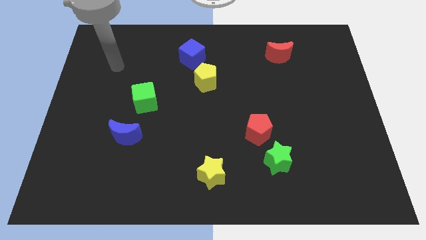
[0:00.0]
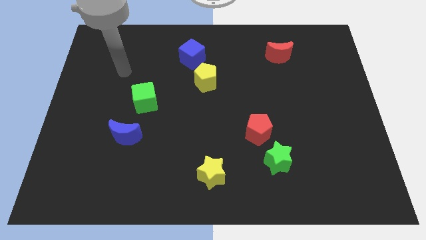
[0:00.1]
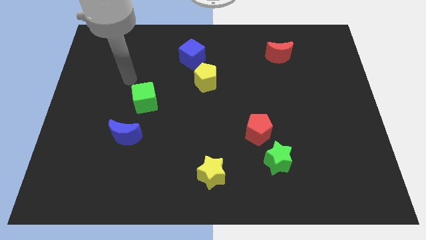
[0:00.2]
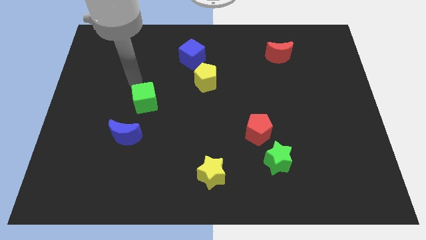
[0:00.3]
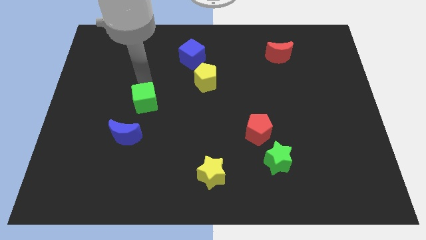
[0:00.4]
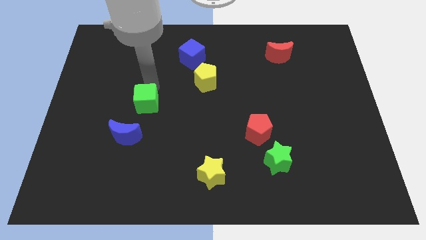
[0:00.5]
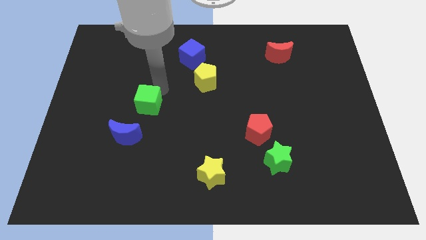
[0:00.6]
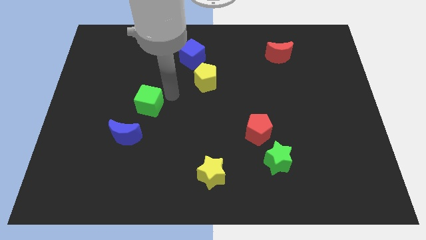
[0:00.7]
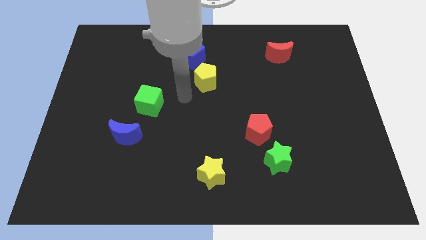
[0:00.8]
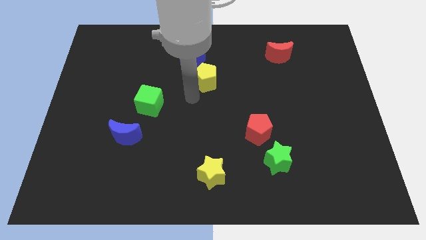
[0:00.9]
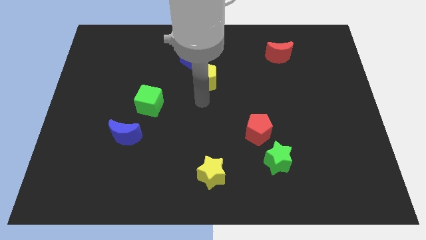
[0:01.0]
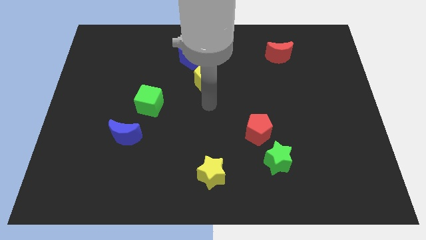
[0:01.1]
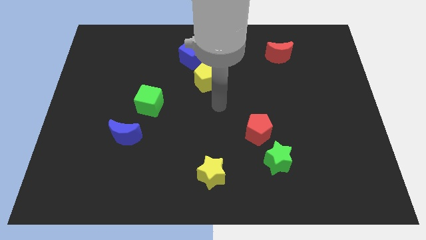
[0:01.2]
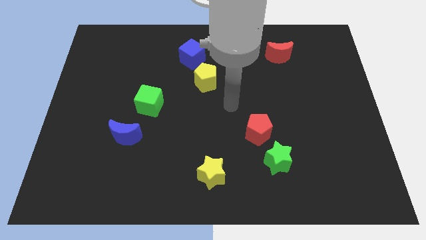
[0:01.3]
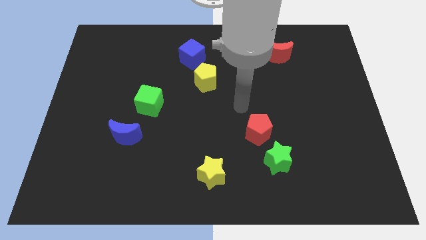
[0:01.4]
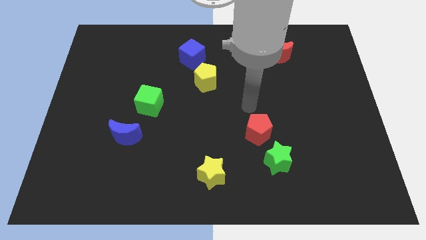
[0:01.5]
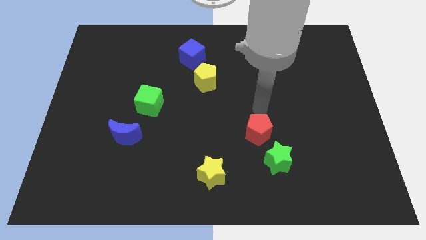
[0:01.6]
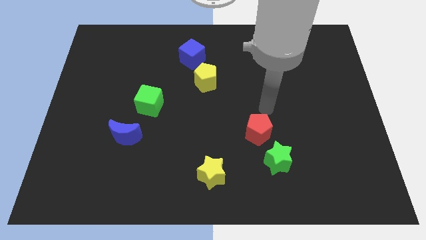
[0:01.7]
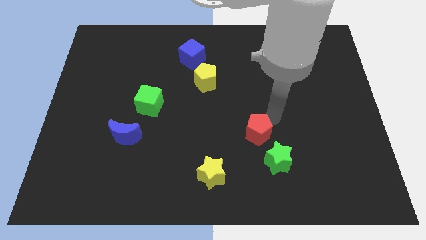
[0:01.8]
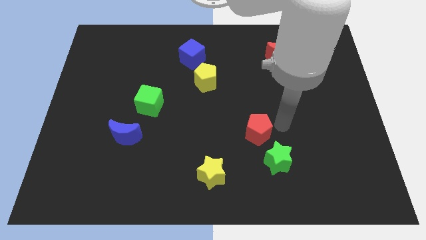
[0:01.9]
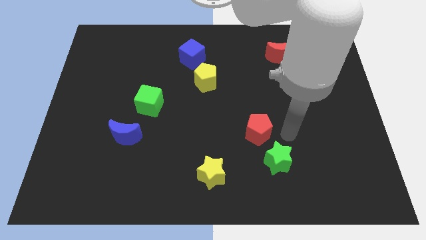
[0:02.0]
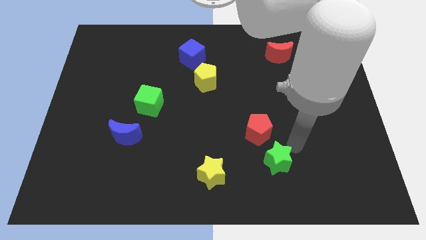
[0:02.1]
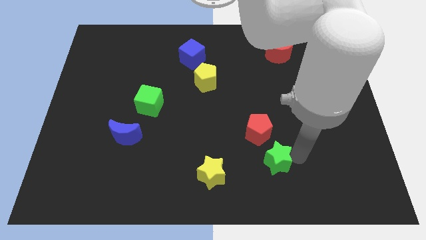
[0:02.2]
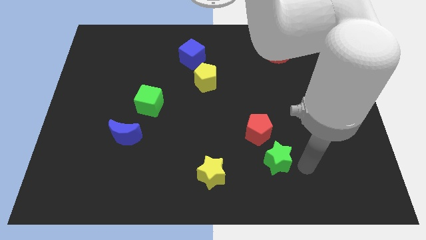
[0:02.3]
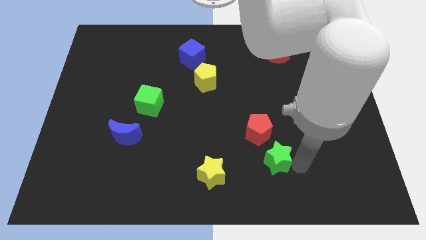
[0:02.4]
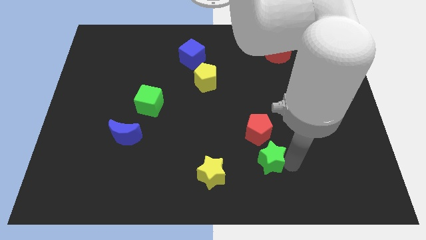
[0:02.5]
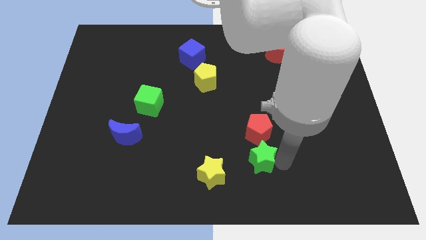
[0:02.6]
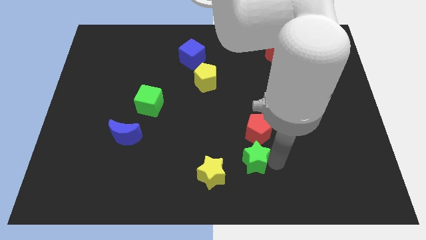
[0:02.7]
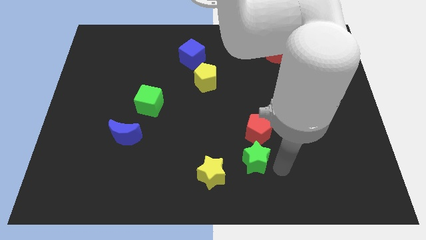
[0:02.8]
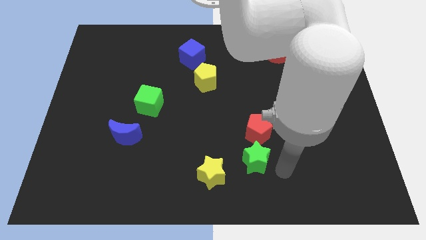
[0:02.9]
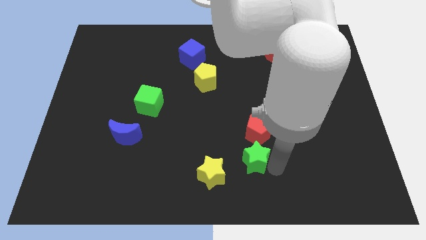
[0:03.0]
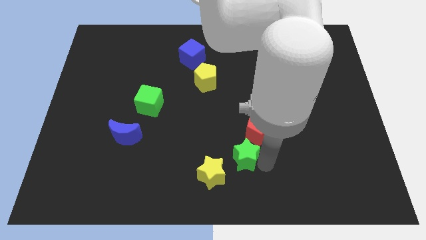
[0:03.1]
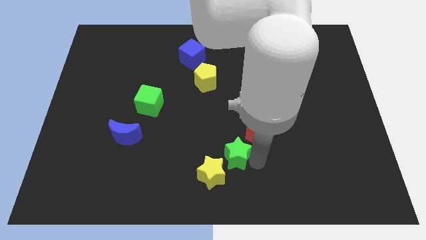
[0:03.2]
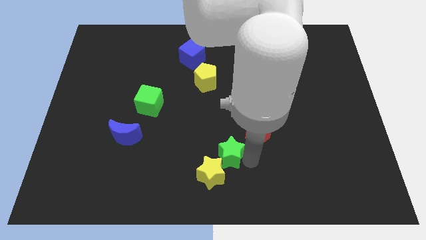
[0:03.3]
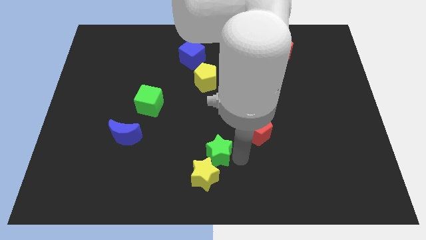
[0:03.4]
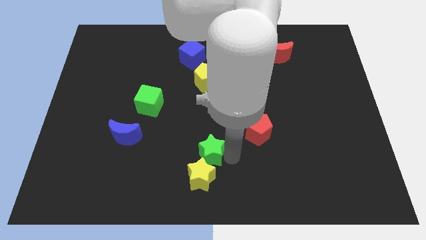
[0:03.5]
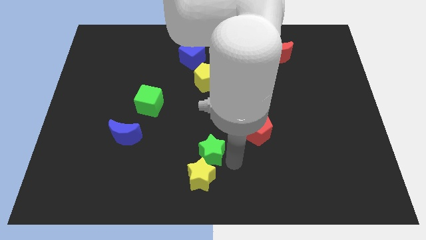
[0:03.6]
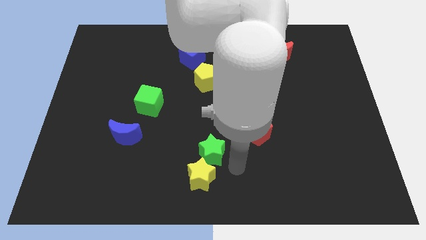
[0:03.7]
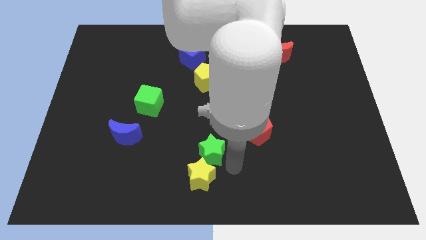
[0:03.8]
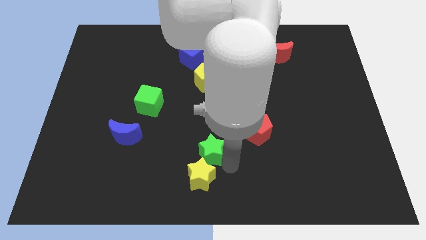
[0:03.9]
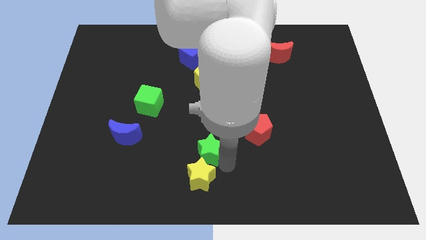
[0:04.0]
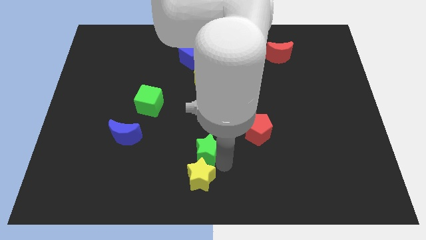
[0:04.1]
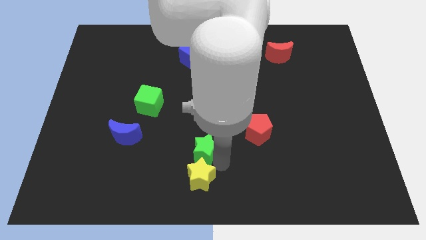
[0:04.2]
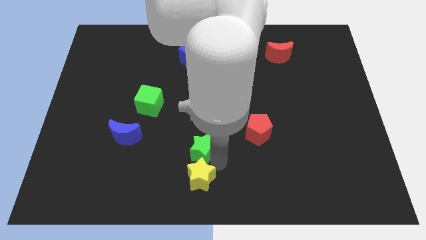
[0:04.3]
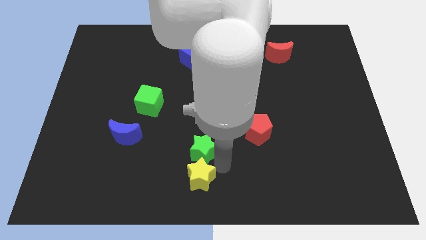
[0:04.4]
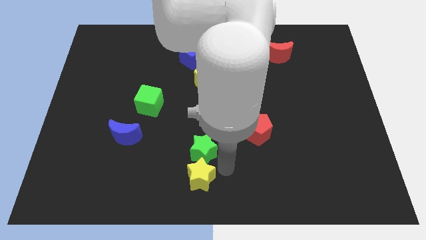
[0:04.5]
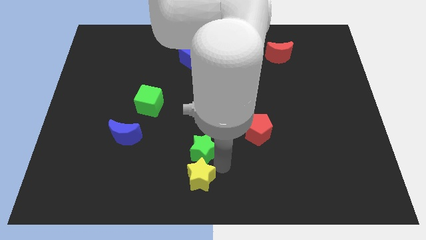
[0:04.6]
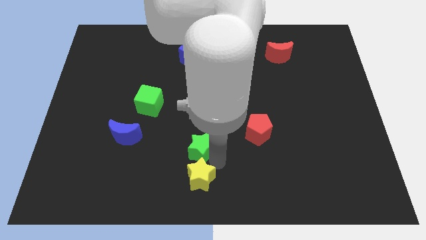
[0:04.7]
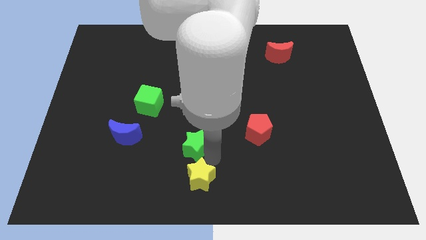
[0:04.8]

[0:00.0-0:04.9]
move the green star just right of the blue moon

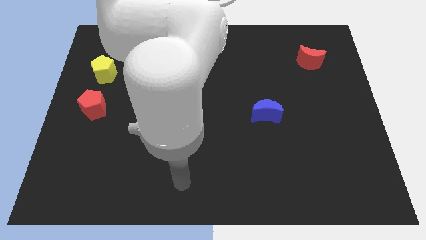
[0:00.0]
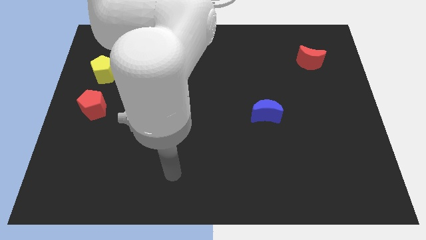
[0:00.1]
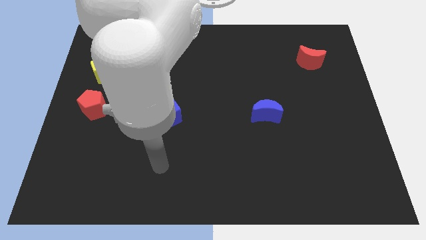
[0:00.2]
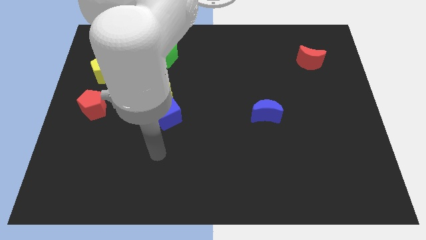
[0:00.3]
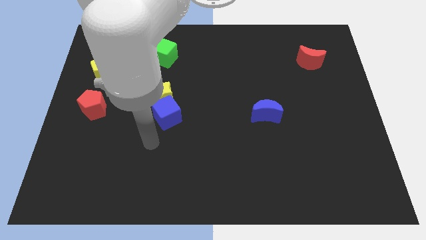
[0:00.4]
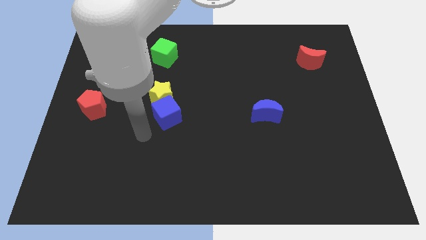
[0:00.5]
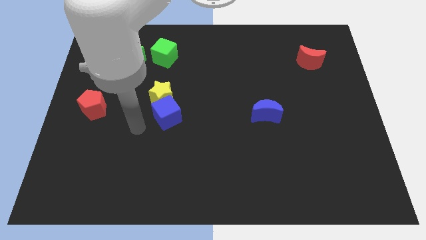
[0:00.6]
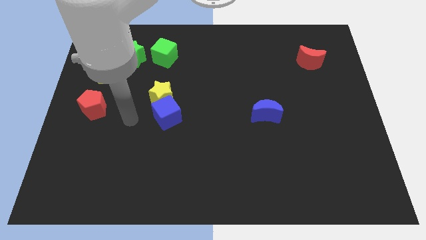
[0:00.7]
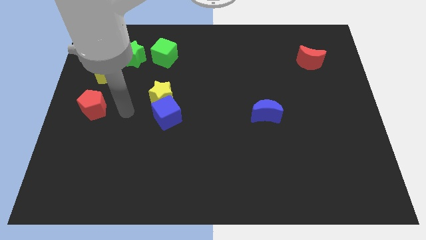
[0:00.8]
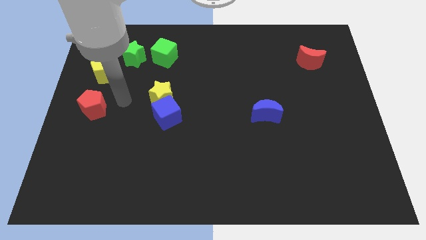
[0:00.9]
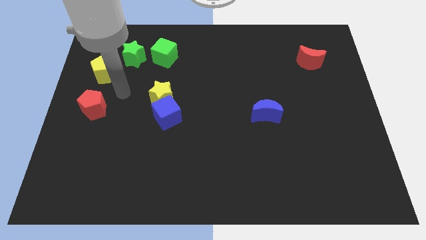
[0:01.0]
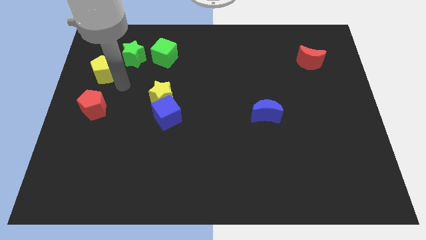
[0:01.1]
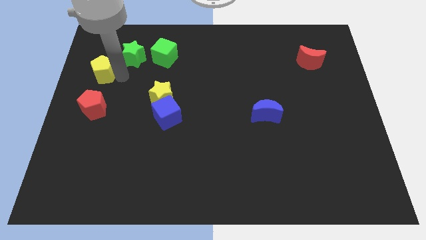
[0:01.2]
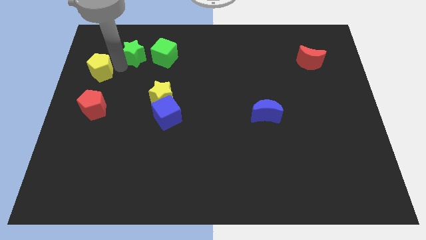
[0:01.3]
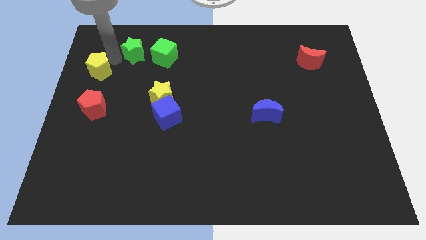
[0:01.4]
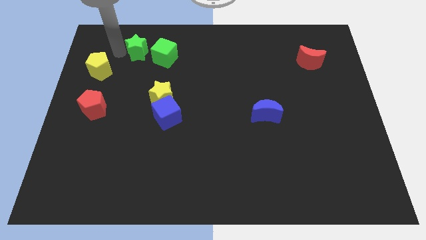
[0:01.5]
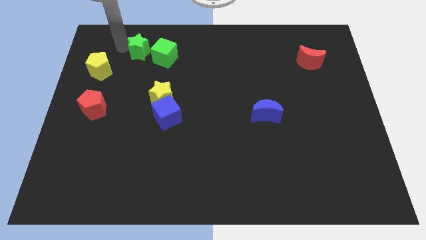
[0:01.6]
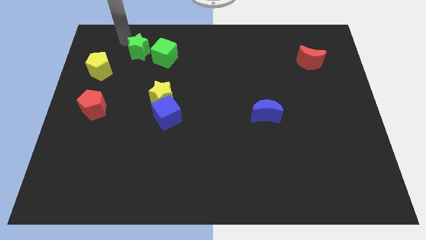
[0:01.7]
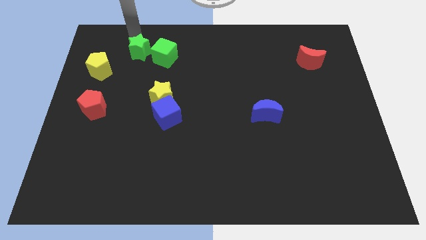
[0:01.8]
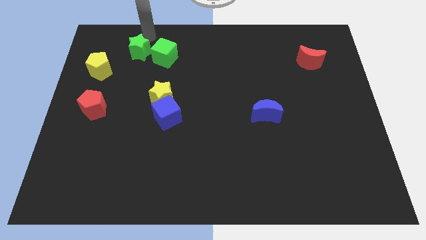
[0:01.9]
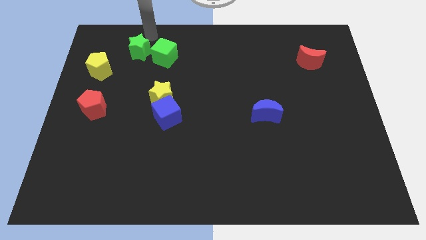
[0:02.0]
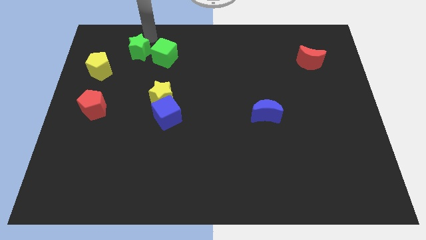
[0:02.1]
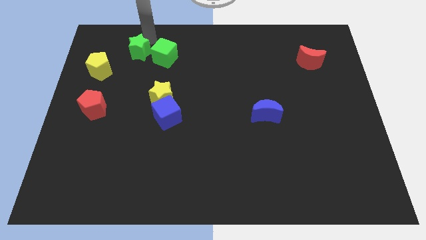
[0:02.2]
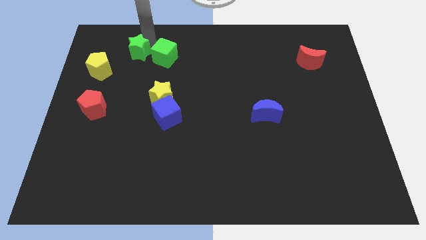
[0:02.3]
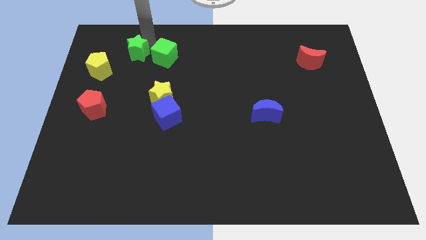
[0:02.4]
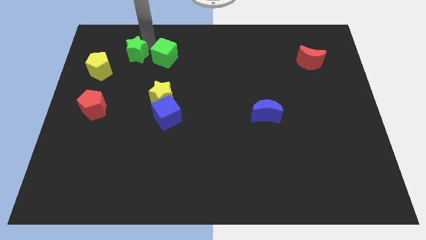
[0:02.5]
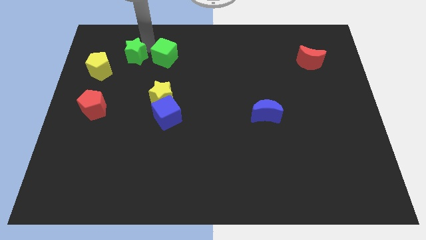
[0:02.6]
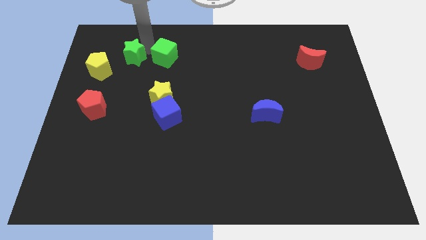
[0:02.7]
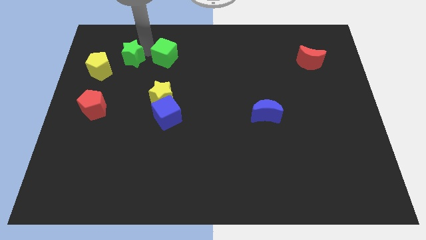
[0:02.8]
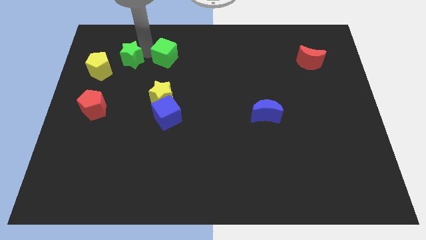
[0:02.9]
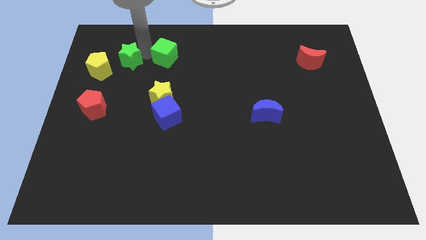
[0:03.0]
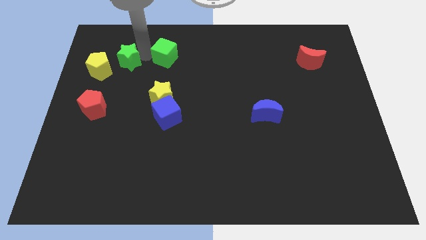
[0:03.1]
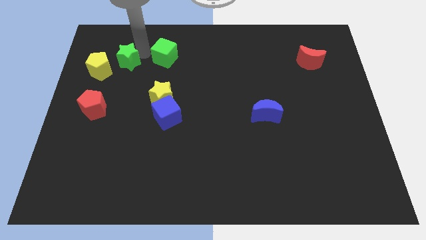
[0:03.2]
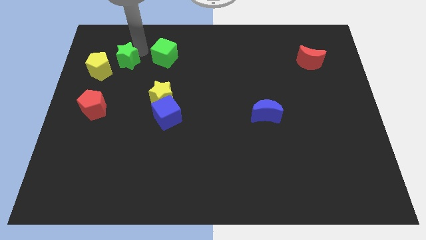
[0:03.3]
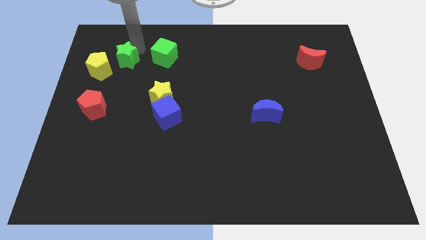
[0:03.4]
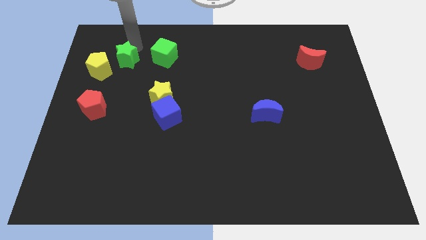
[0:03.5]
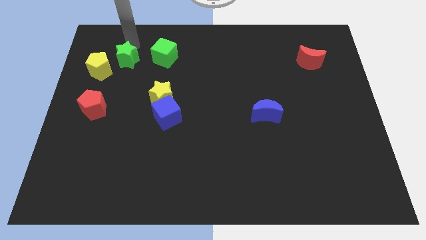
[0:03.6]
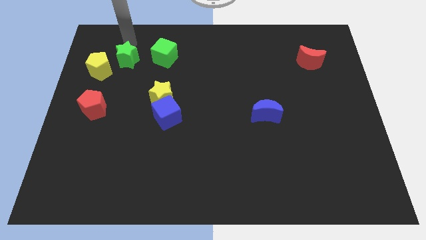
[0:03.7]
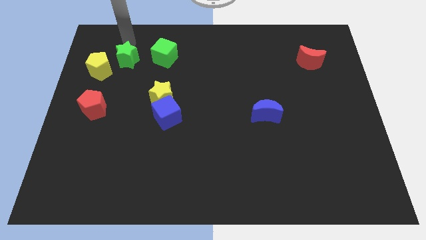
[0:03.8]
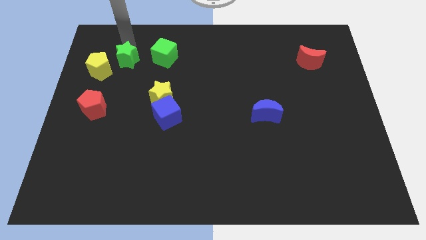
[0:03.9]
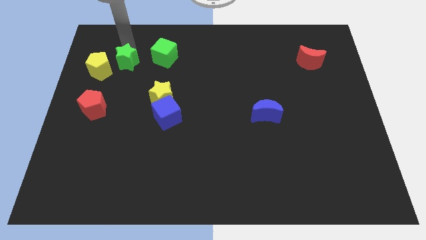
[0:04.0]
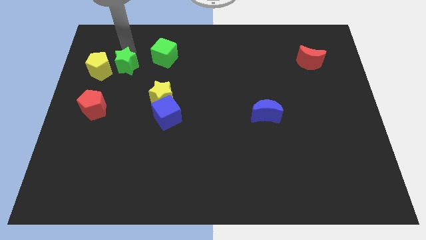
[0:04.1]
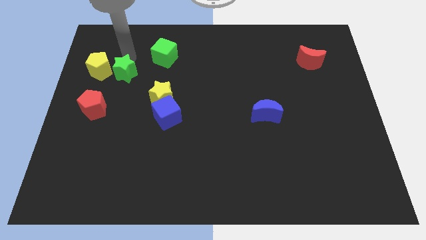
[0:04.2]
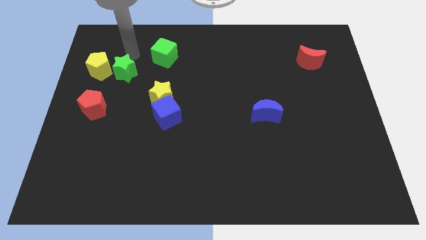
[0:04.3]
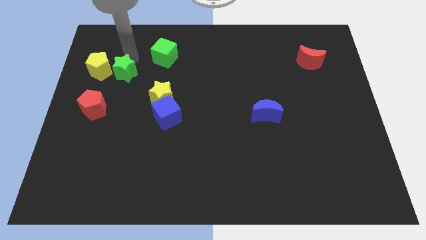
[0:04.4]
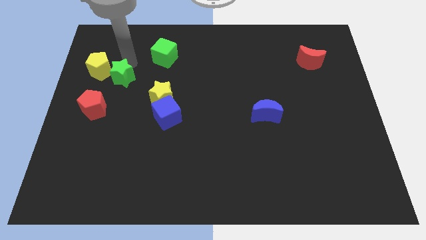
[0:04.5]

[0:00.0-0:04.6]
slide the green star to the top right side of the red pentagon
